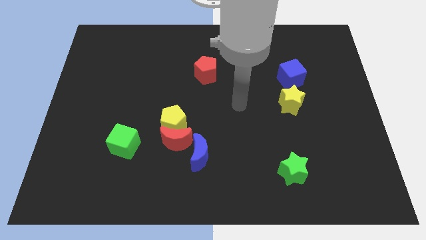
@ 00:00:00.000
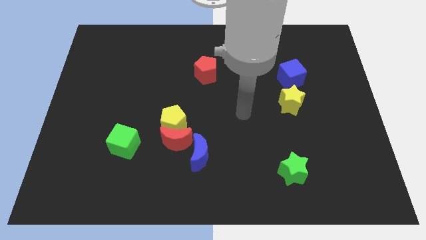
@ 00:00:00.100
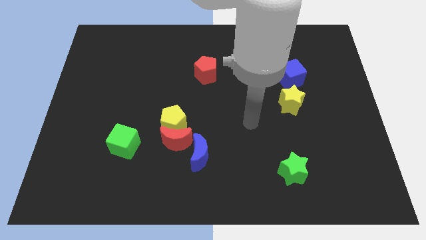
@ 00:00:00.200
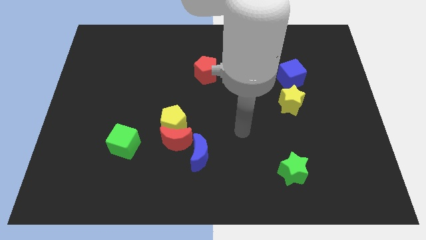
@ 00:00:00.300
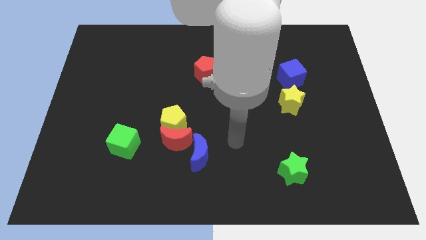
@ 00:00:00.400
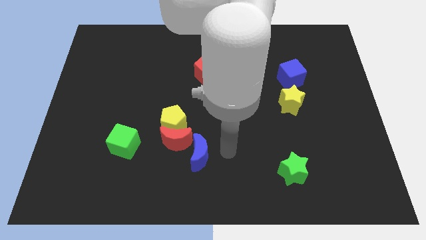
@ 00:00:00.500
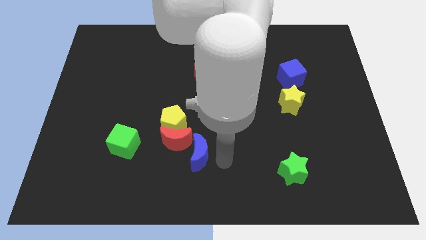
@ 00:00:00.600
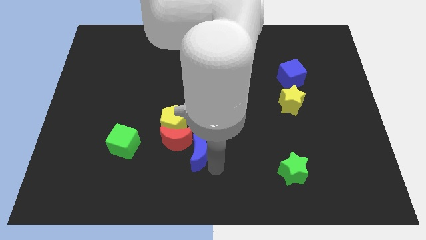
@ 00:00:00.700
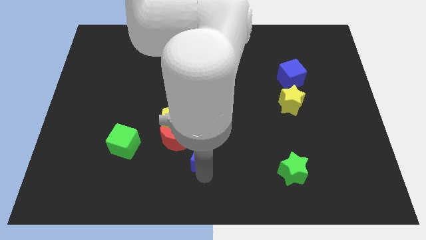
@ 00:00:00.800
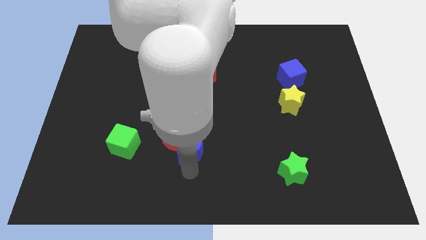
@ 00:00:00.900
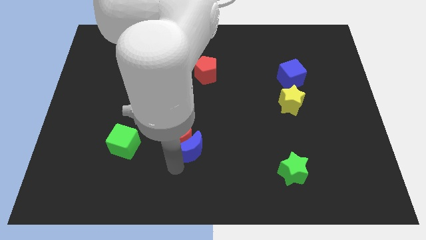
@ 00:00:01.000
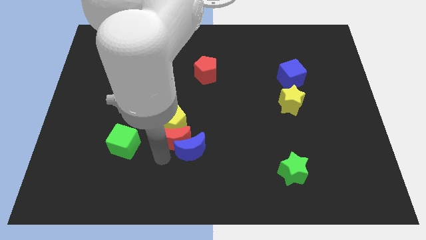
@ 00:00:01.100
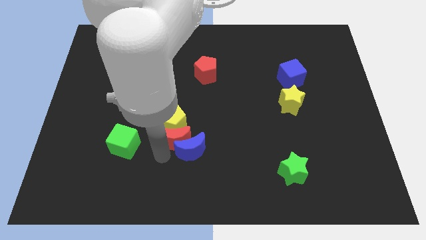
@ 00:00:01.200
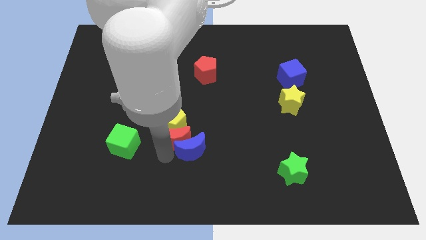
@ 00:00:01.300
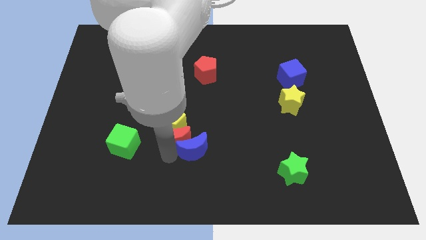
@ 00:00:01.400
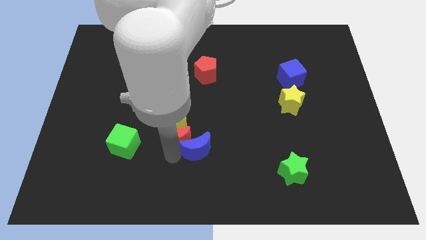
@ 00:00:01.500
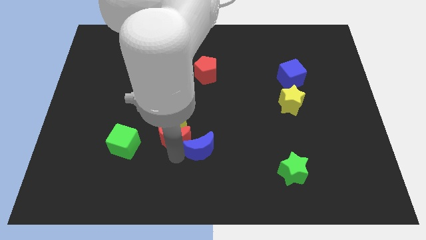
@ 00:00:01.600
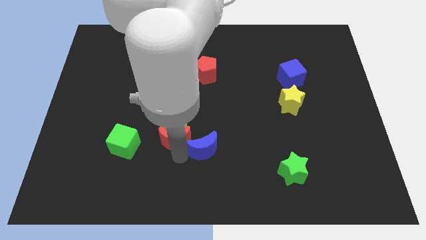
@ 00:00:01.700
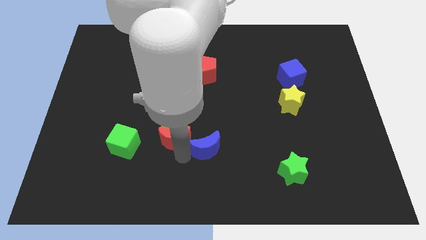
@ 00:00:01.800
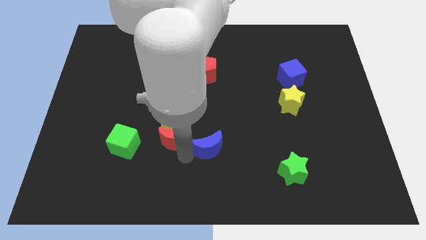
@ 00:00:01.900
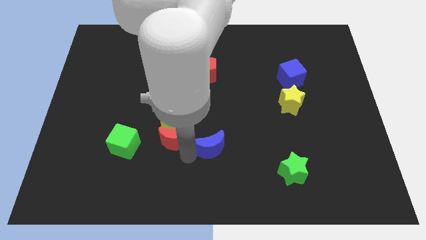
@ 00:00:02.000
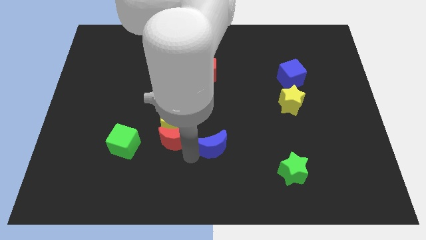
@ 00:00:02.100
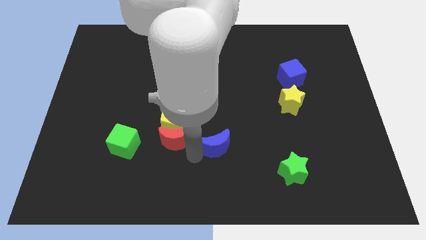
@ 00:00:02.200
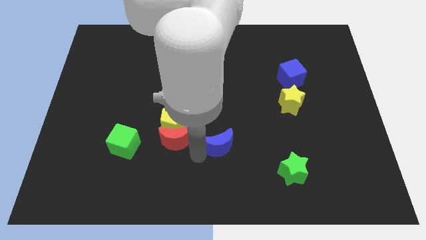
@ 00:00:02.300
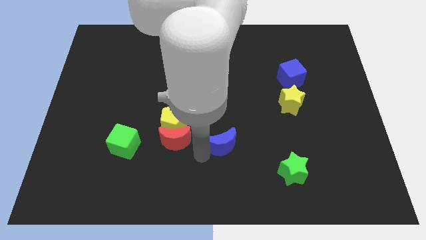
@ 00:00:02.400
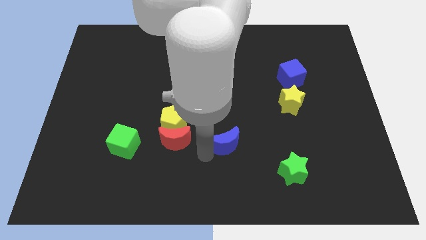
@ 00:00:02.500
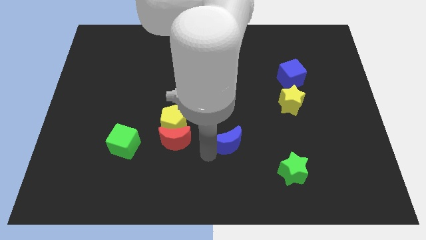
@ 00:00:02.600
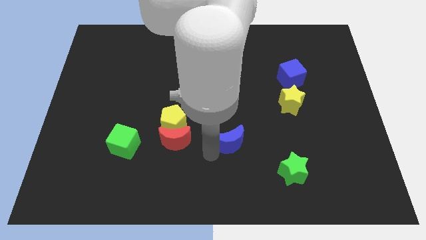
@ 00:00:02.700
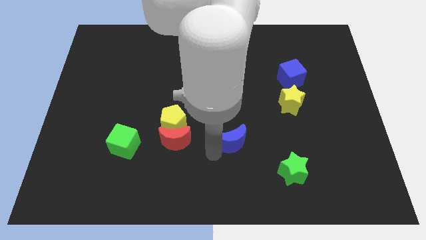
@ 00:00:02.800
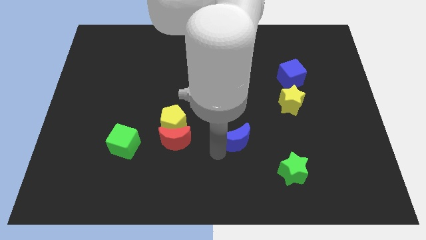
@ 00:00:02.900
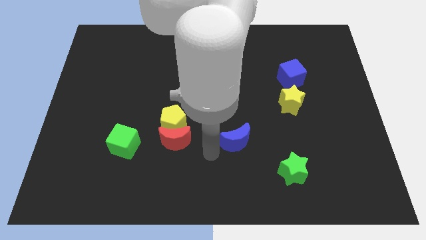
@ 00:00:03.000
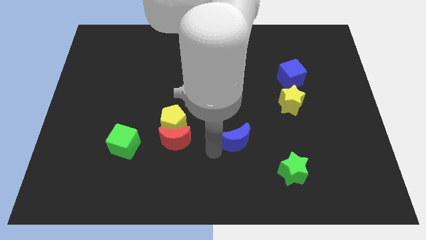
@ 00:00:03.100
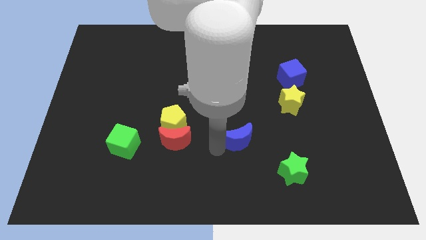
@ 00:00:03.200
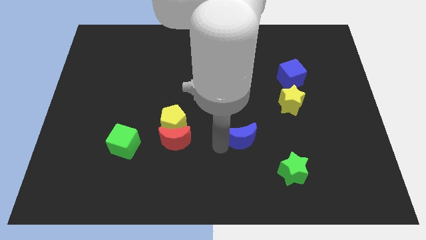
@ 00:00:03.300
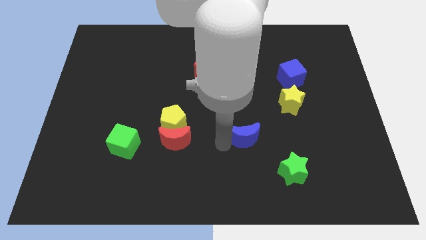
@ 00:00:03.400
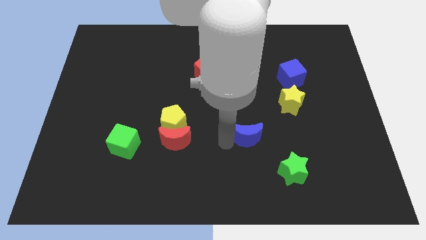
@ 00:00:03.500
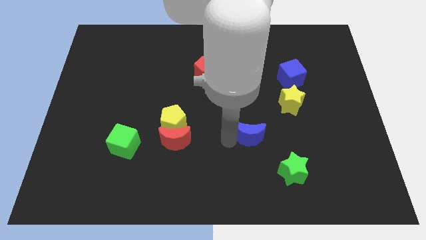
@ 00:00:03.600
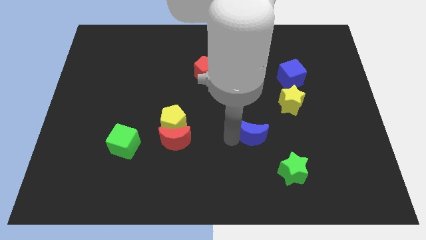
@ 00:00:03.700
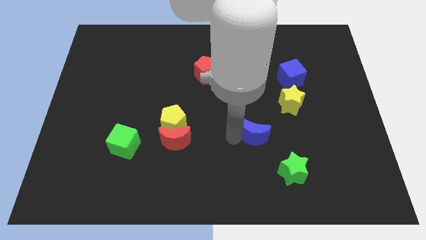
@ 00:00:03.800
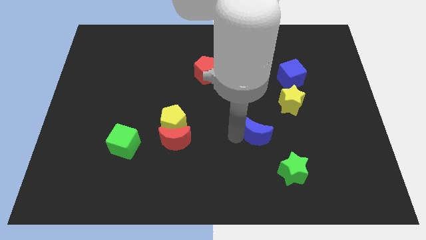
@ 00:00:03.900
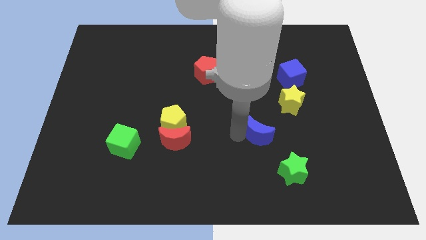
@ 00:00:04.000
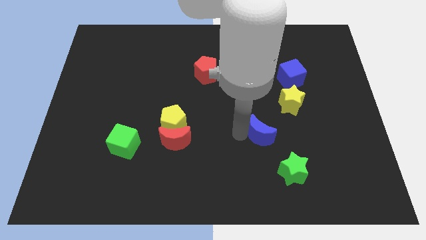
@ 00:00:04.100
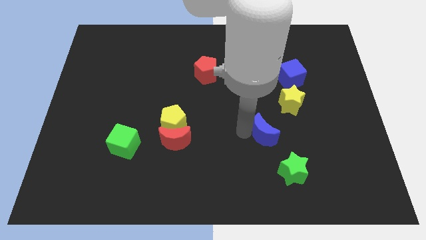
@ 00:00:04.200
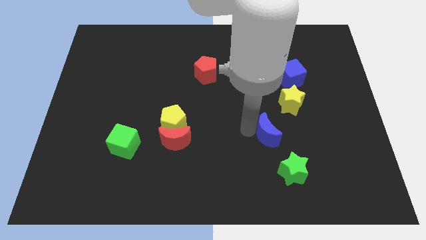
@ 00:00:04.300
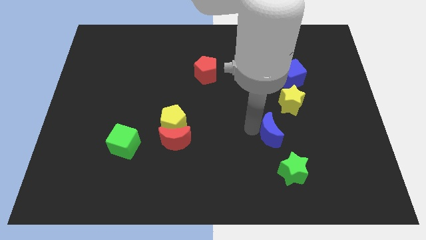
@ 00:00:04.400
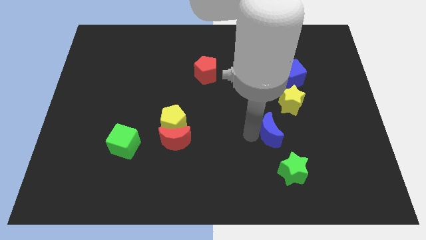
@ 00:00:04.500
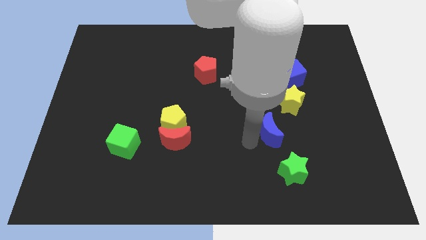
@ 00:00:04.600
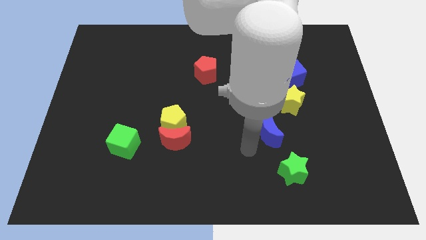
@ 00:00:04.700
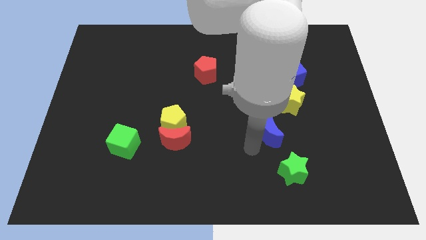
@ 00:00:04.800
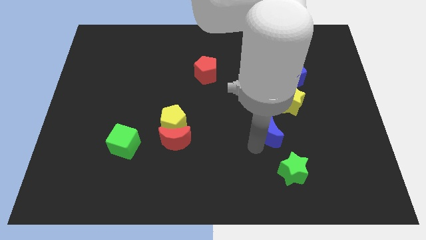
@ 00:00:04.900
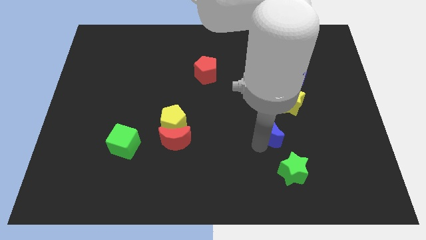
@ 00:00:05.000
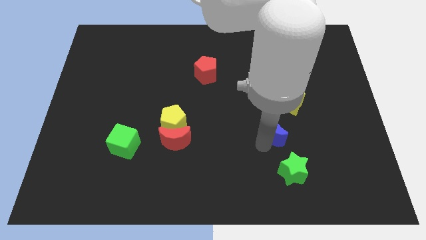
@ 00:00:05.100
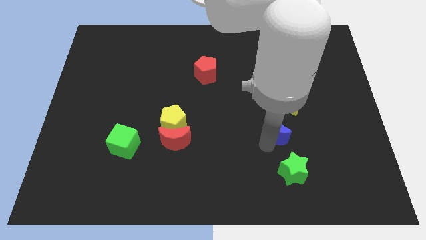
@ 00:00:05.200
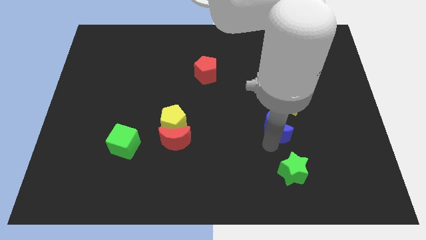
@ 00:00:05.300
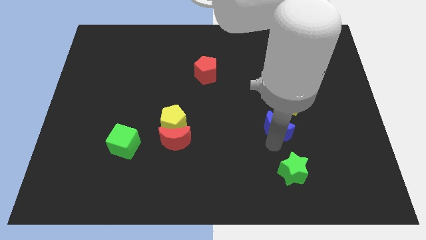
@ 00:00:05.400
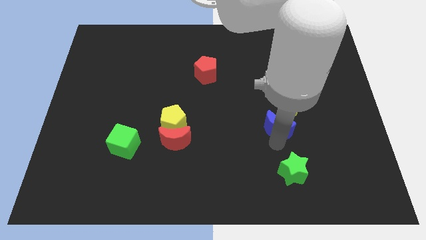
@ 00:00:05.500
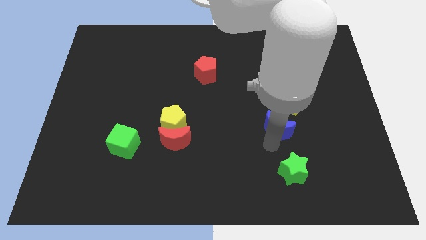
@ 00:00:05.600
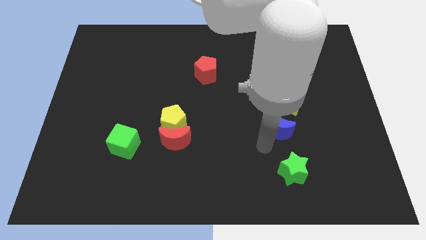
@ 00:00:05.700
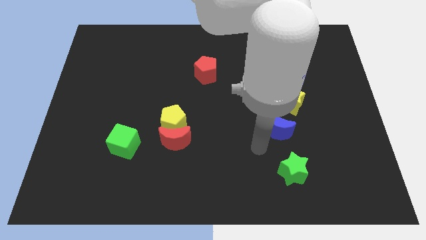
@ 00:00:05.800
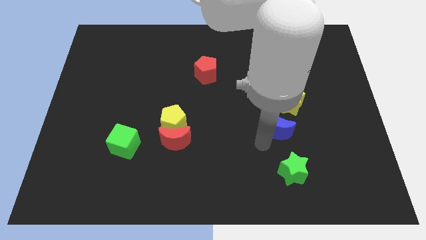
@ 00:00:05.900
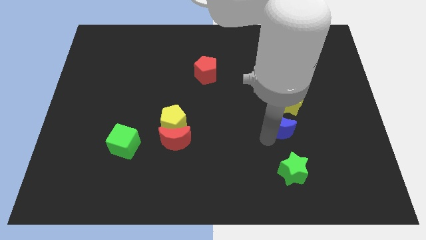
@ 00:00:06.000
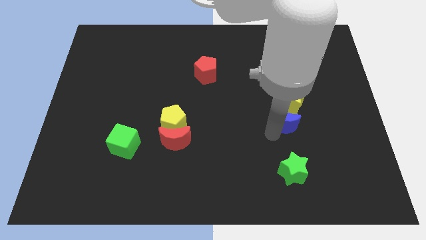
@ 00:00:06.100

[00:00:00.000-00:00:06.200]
move the blue moon below the blue cube

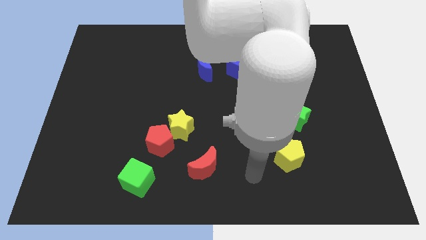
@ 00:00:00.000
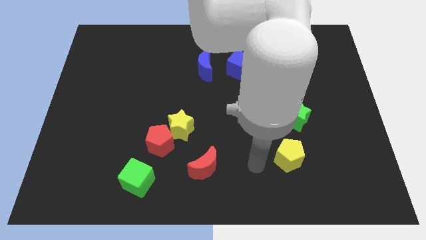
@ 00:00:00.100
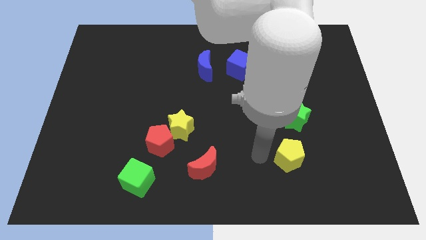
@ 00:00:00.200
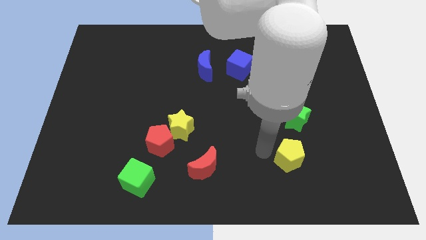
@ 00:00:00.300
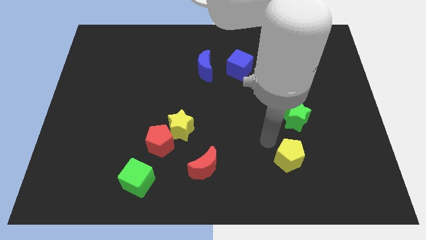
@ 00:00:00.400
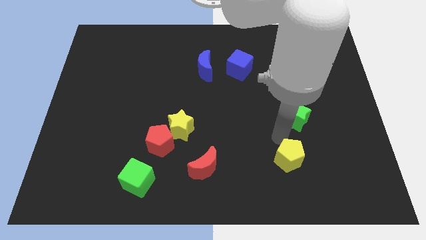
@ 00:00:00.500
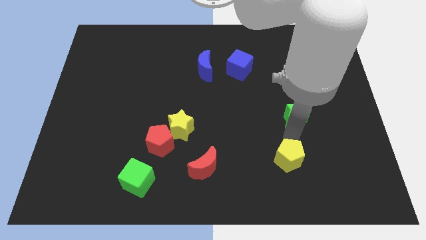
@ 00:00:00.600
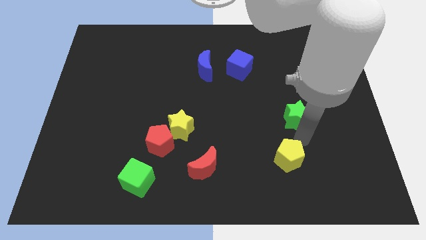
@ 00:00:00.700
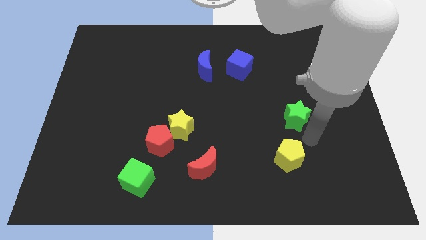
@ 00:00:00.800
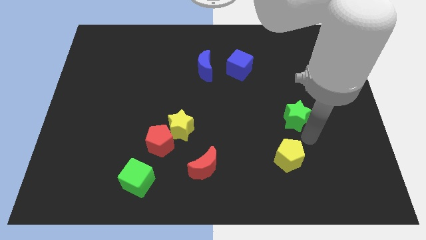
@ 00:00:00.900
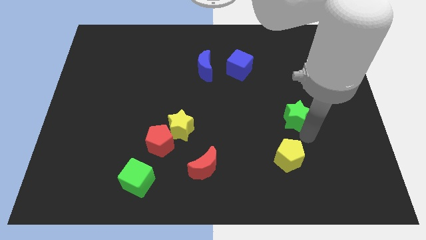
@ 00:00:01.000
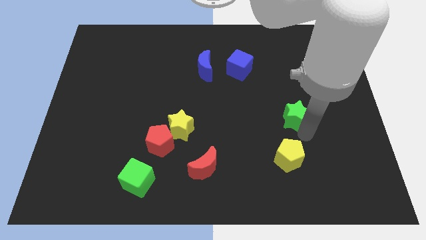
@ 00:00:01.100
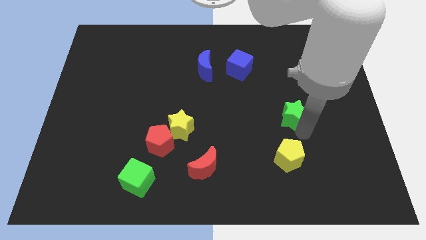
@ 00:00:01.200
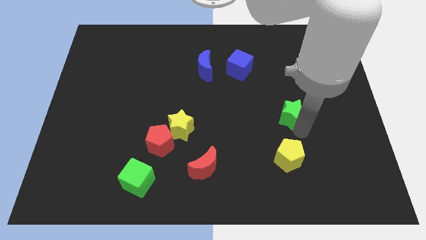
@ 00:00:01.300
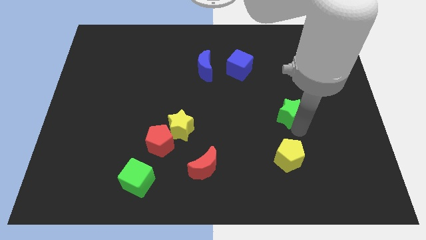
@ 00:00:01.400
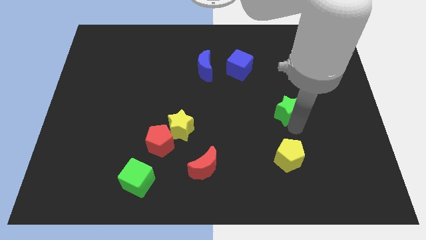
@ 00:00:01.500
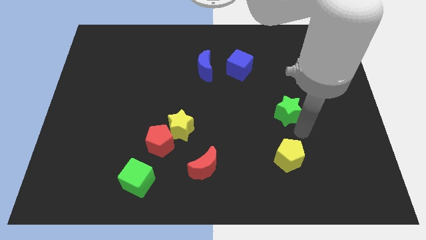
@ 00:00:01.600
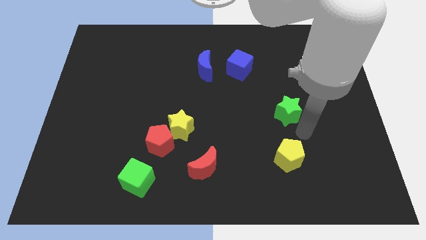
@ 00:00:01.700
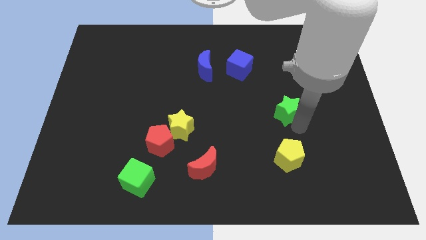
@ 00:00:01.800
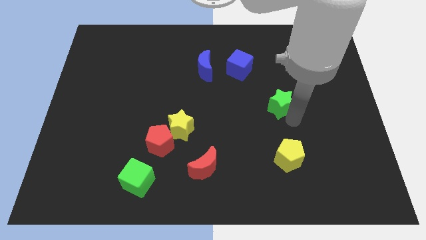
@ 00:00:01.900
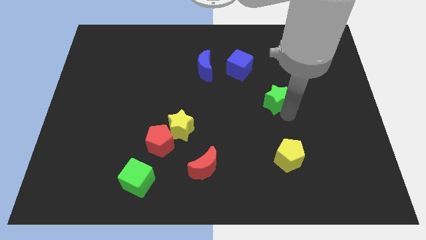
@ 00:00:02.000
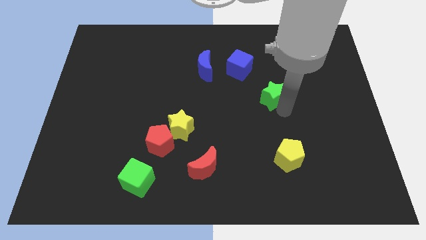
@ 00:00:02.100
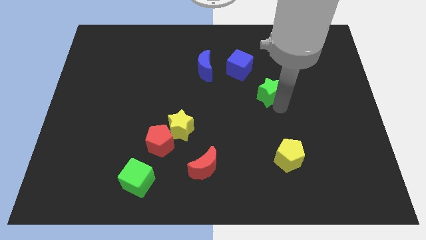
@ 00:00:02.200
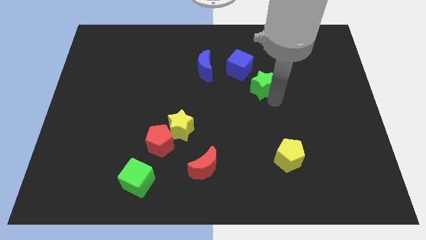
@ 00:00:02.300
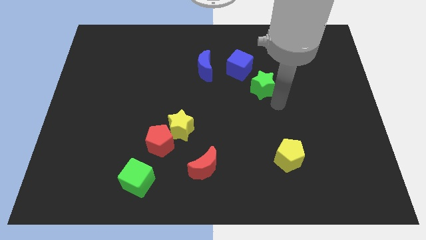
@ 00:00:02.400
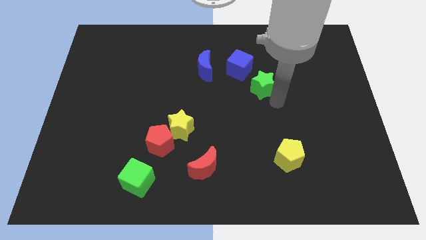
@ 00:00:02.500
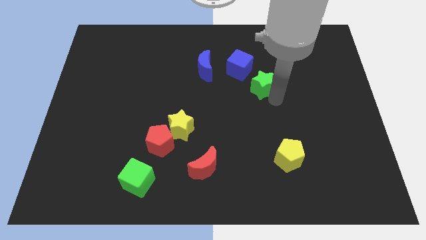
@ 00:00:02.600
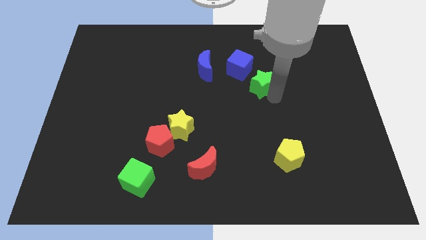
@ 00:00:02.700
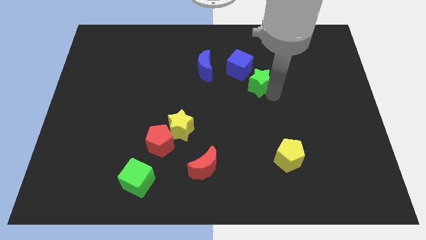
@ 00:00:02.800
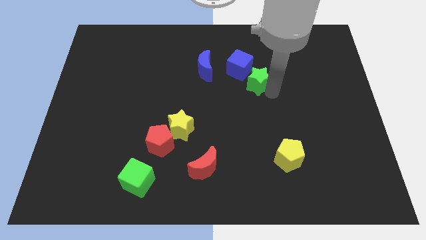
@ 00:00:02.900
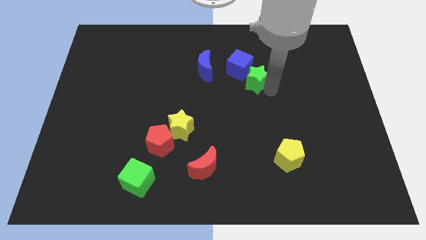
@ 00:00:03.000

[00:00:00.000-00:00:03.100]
slide the green star right of the blue moon
